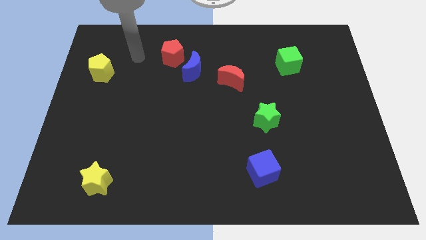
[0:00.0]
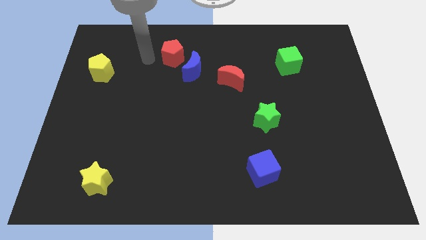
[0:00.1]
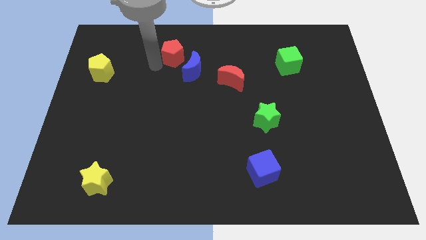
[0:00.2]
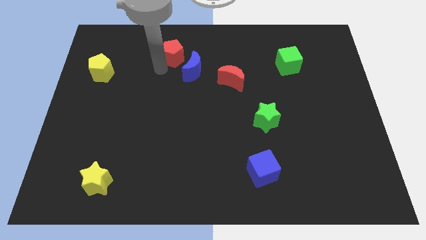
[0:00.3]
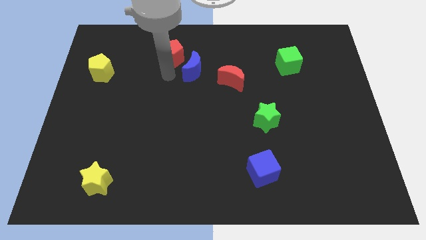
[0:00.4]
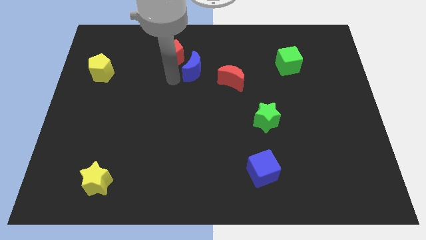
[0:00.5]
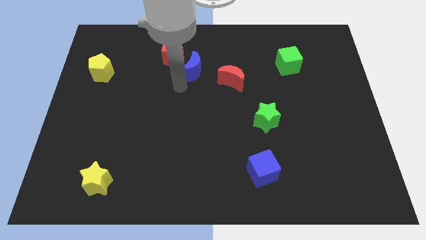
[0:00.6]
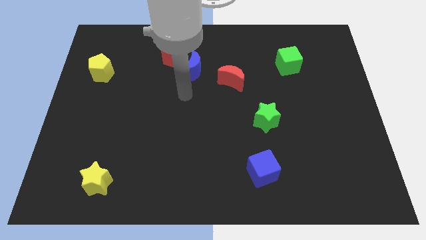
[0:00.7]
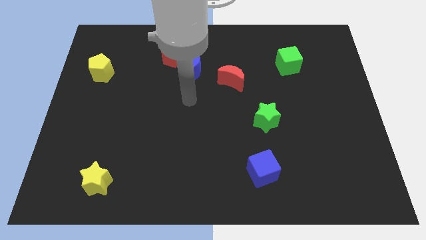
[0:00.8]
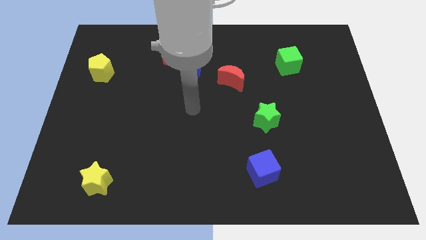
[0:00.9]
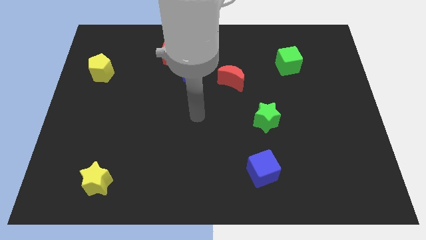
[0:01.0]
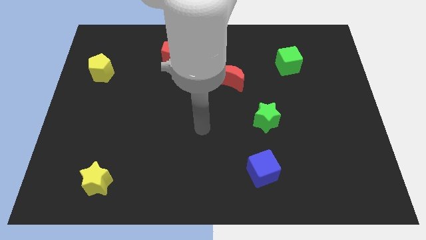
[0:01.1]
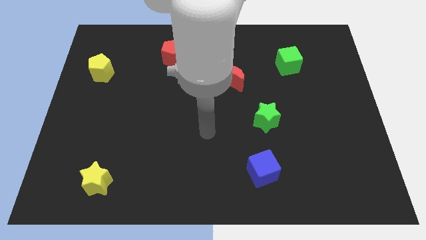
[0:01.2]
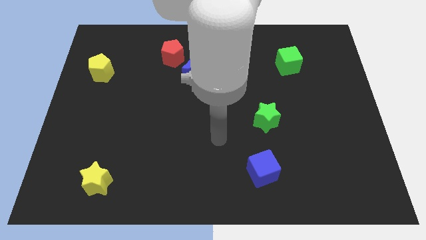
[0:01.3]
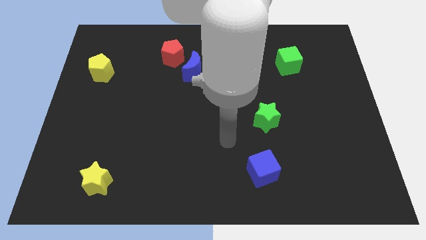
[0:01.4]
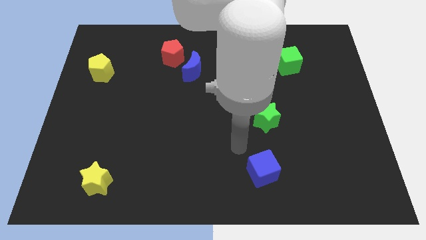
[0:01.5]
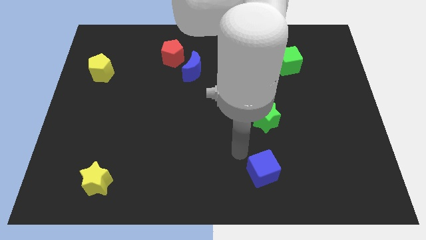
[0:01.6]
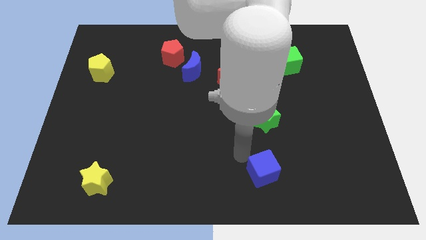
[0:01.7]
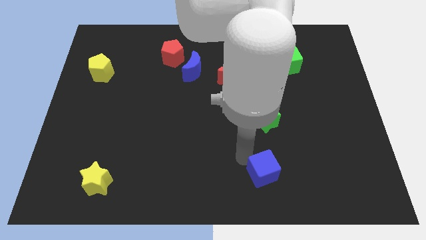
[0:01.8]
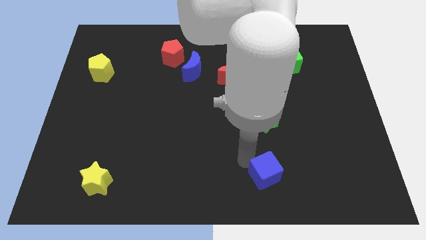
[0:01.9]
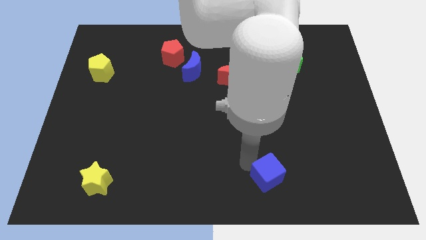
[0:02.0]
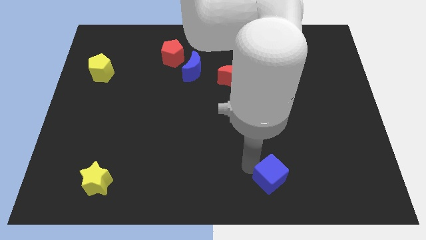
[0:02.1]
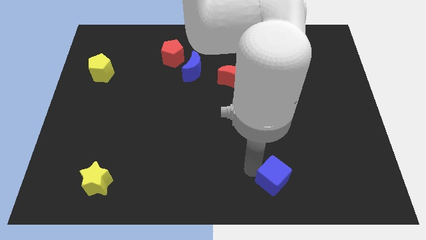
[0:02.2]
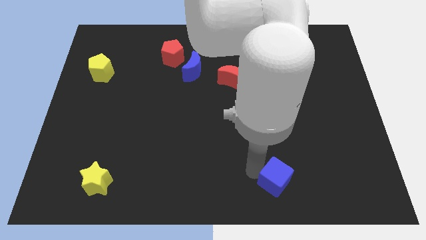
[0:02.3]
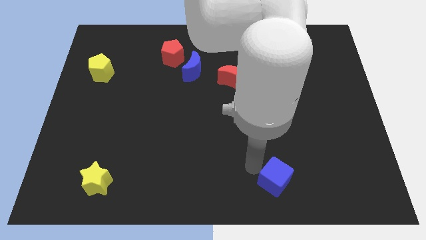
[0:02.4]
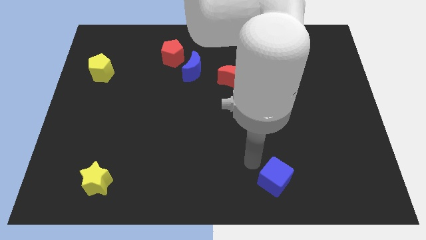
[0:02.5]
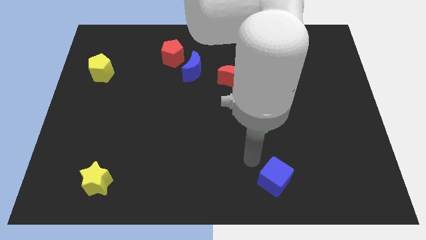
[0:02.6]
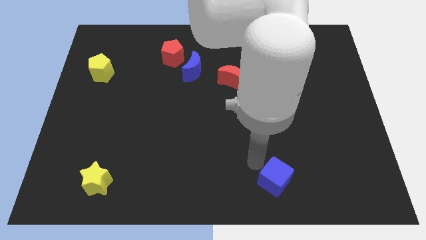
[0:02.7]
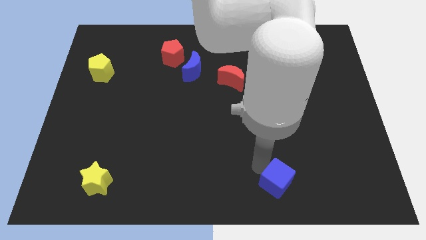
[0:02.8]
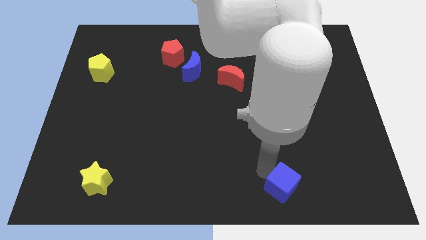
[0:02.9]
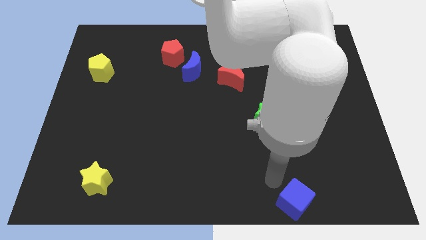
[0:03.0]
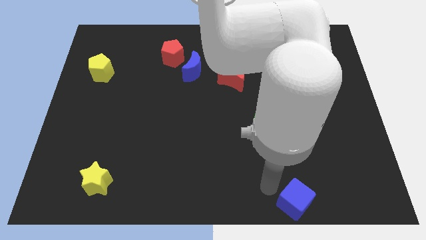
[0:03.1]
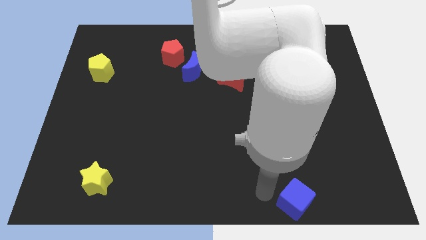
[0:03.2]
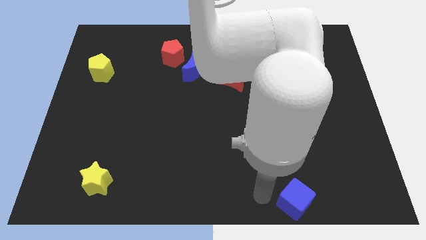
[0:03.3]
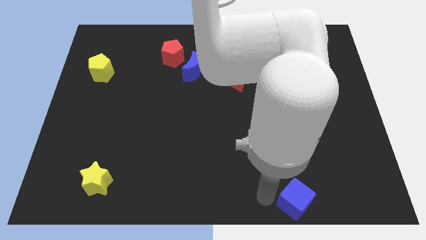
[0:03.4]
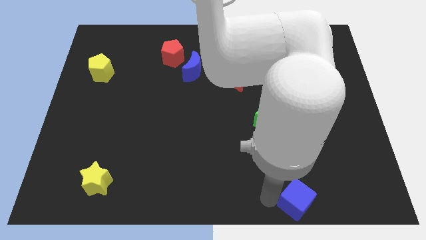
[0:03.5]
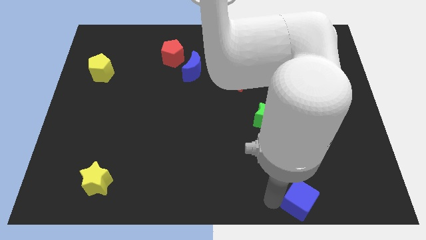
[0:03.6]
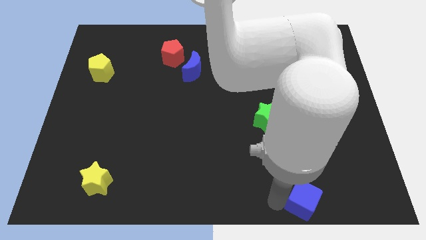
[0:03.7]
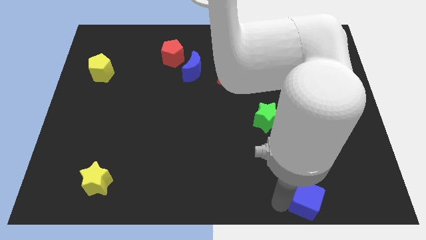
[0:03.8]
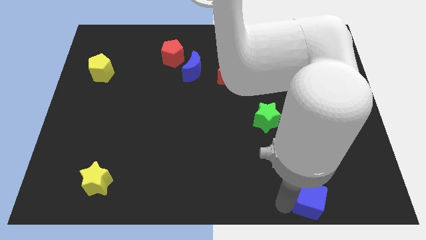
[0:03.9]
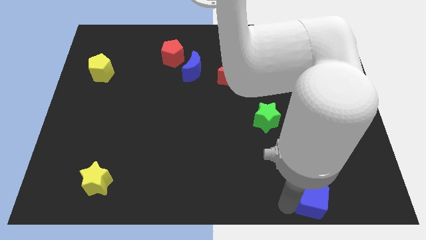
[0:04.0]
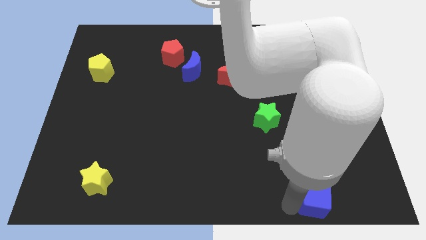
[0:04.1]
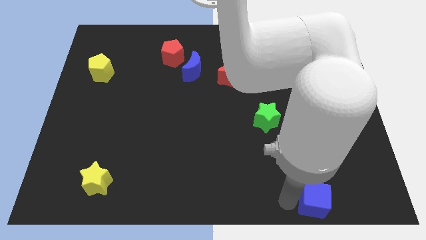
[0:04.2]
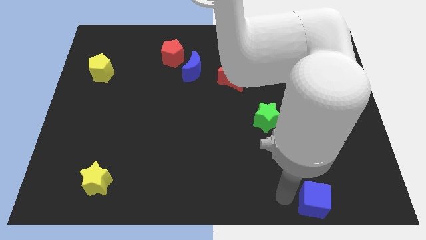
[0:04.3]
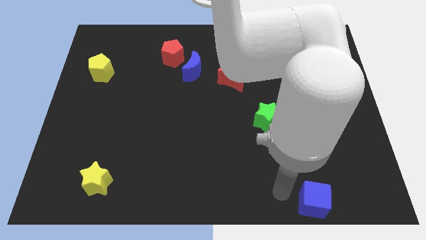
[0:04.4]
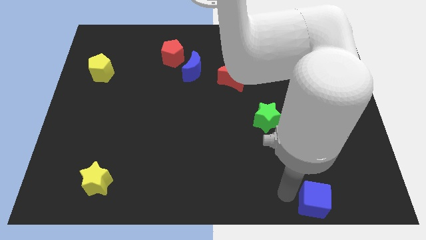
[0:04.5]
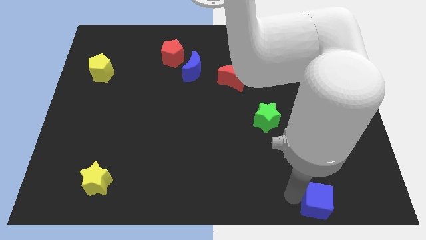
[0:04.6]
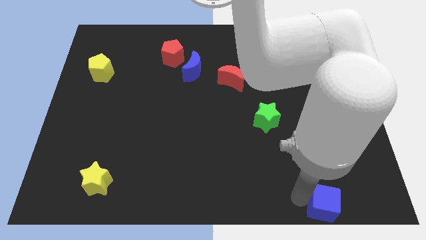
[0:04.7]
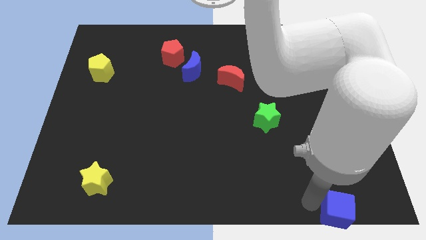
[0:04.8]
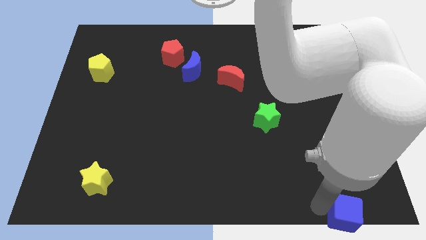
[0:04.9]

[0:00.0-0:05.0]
move the blue cube to the bottom right of the board

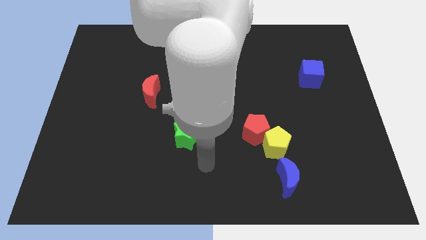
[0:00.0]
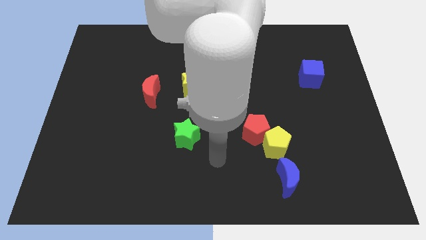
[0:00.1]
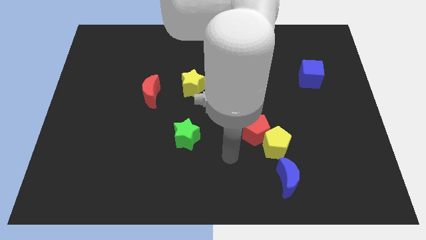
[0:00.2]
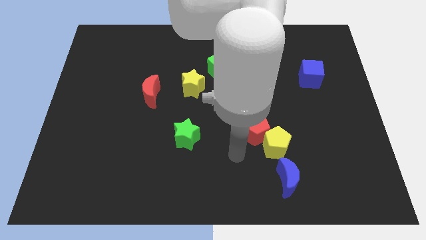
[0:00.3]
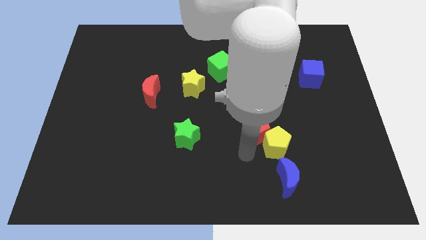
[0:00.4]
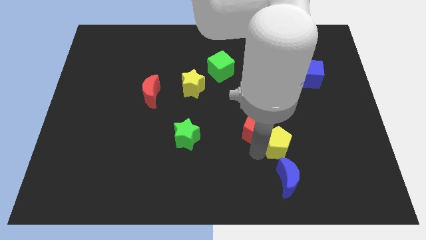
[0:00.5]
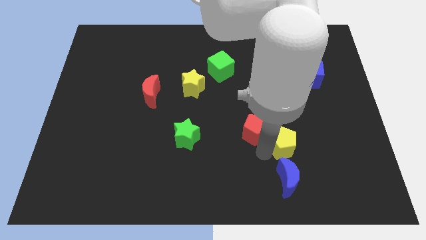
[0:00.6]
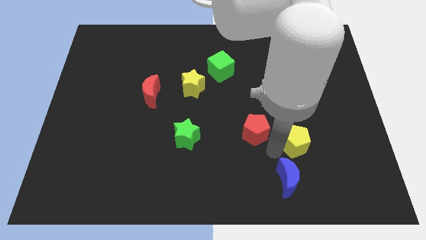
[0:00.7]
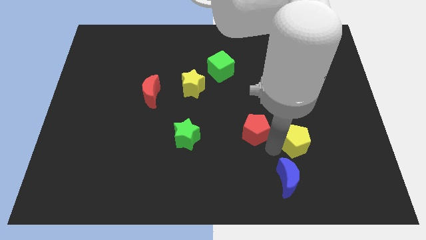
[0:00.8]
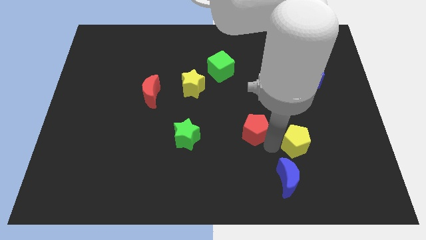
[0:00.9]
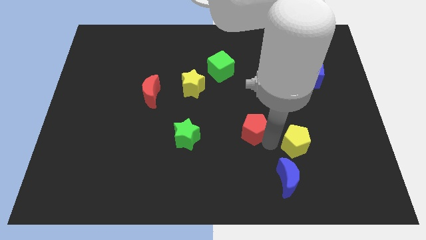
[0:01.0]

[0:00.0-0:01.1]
slide the red pentagon to the center
